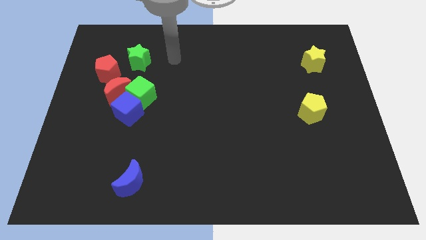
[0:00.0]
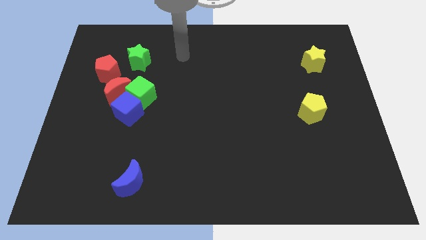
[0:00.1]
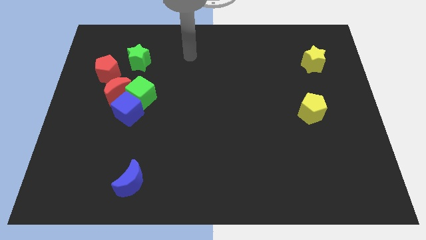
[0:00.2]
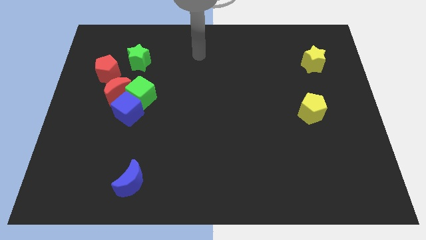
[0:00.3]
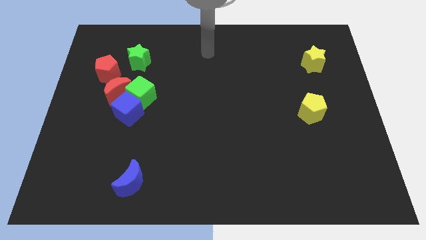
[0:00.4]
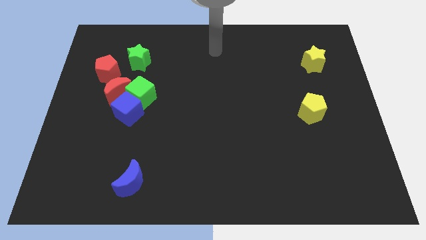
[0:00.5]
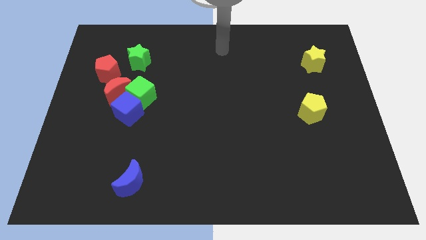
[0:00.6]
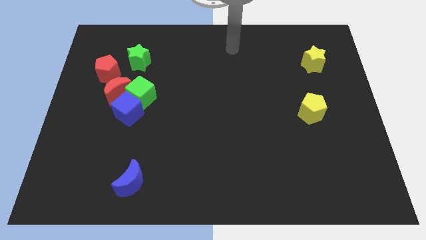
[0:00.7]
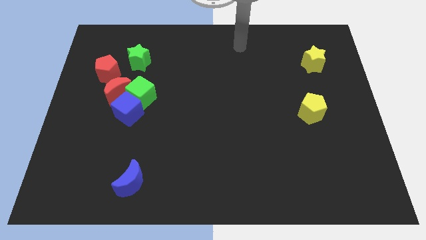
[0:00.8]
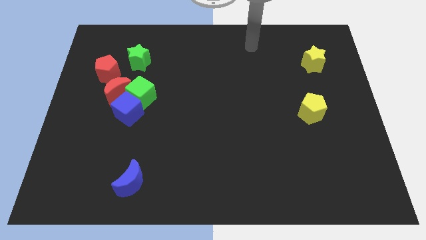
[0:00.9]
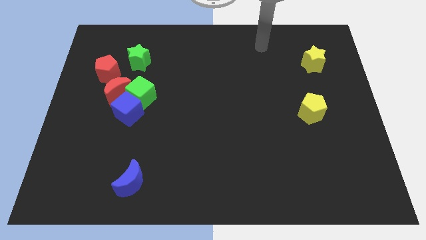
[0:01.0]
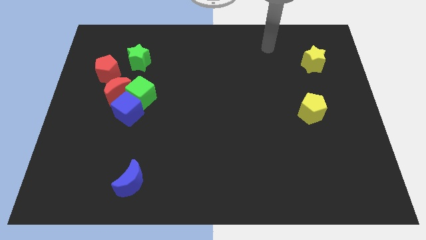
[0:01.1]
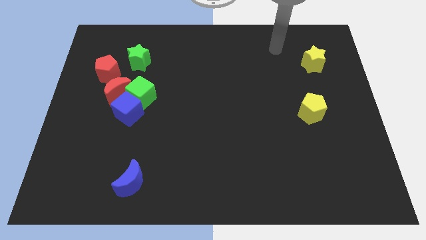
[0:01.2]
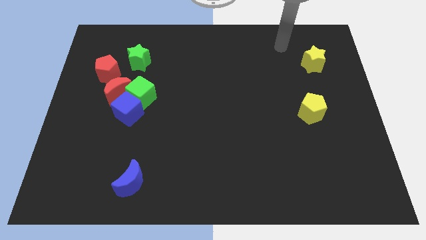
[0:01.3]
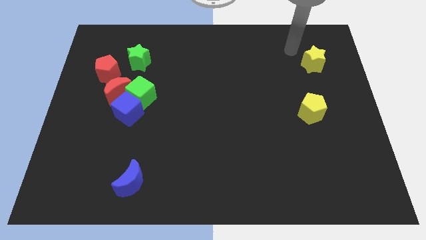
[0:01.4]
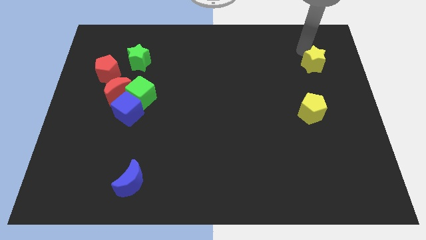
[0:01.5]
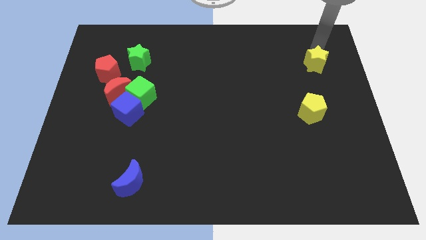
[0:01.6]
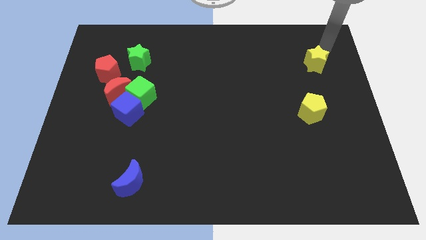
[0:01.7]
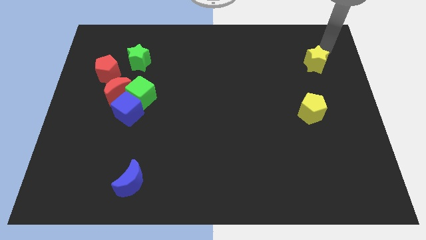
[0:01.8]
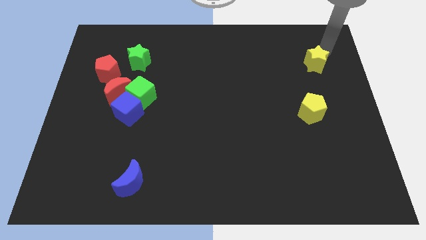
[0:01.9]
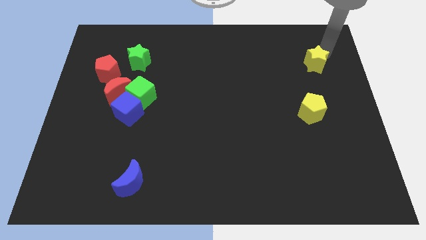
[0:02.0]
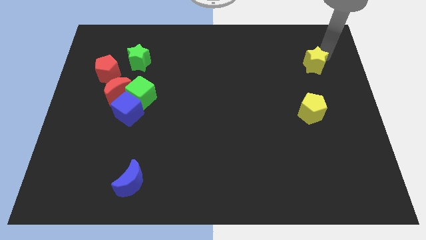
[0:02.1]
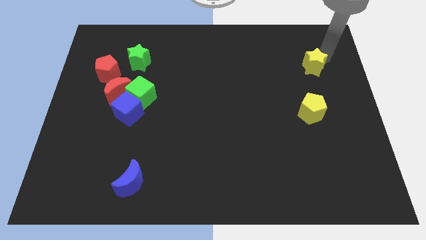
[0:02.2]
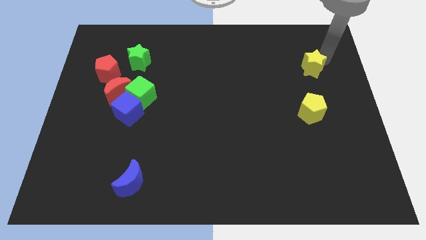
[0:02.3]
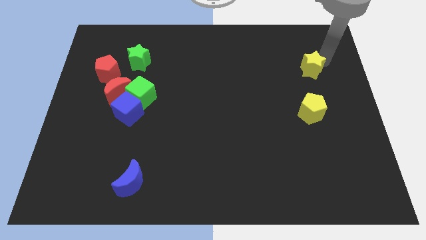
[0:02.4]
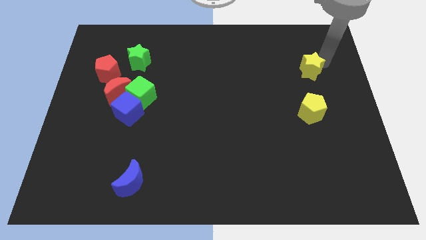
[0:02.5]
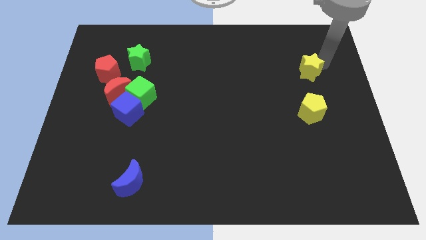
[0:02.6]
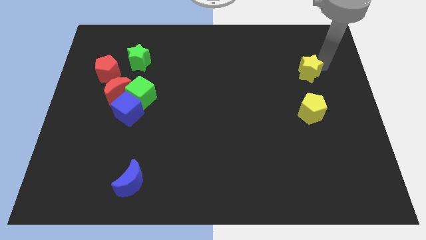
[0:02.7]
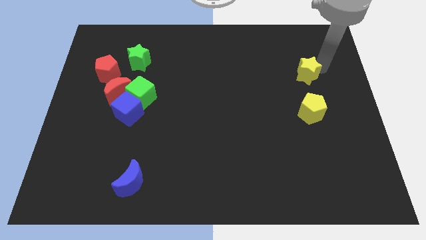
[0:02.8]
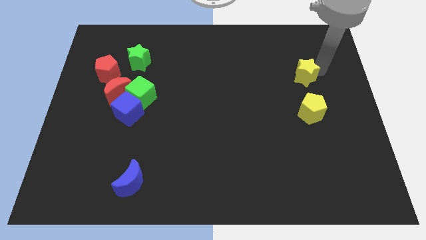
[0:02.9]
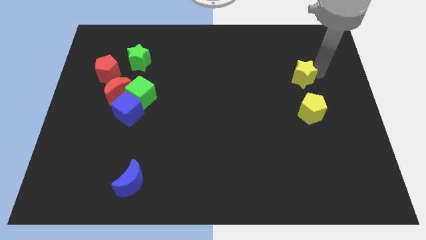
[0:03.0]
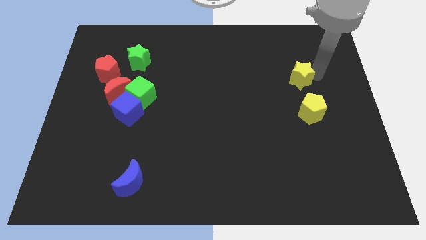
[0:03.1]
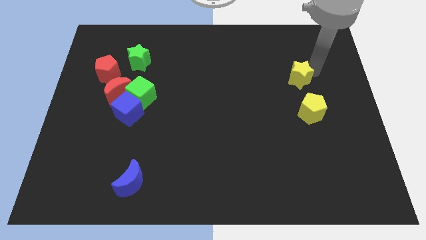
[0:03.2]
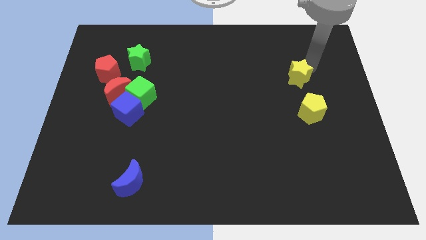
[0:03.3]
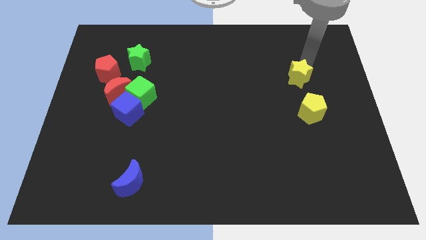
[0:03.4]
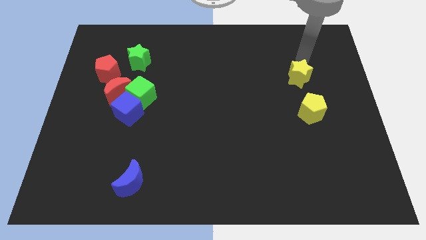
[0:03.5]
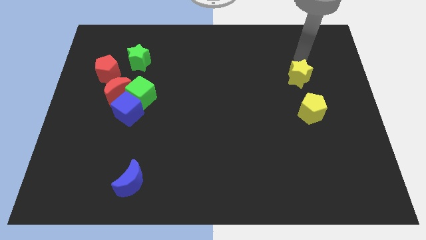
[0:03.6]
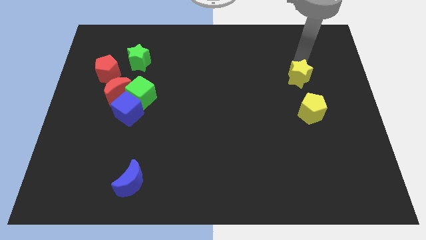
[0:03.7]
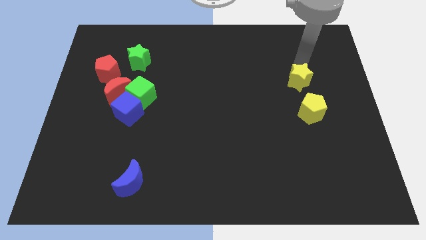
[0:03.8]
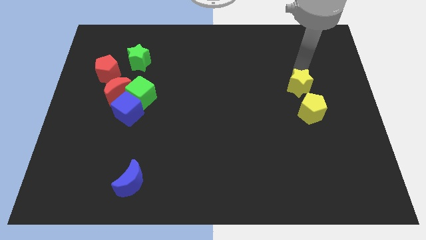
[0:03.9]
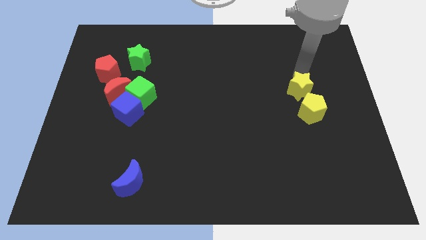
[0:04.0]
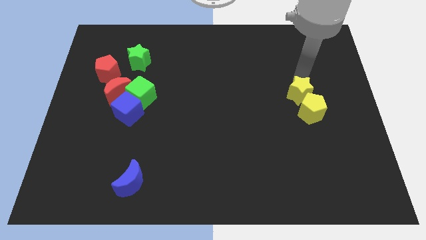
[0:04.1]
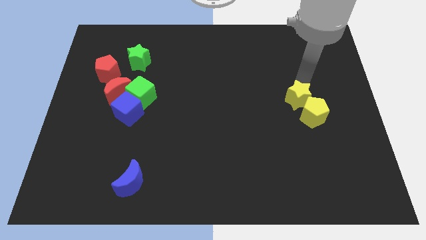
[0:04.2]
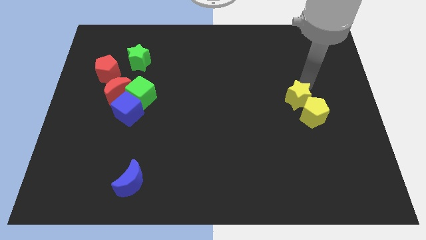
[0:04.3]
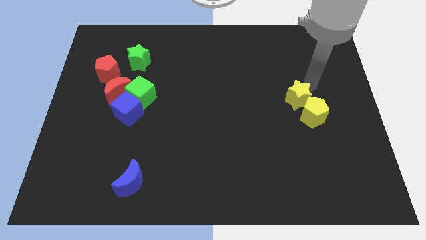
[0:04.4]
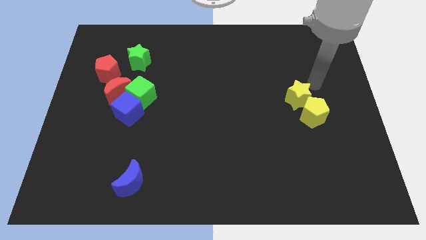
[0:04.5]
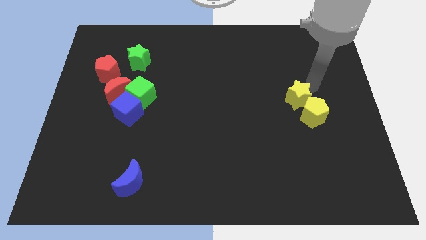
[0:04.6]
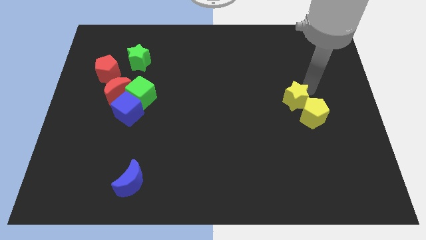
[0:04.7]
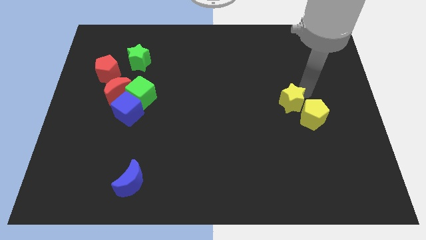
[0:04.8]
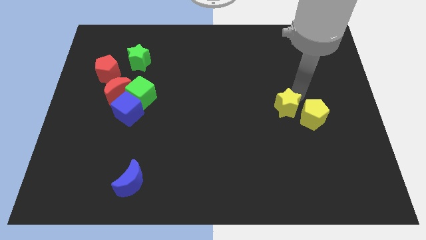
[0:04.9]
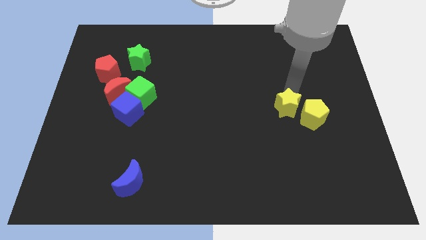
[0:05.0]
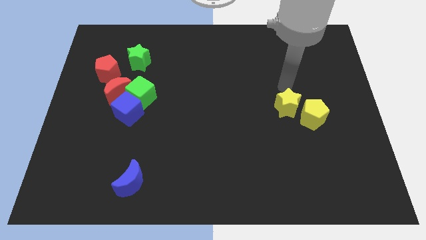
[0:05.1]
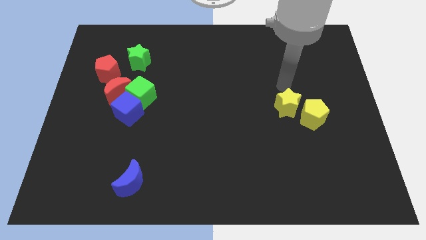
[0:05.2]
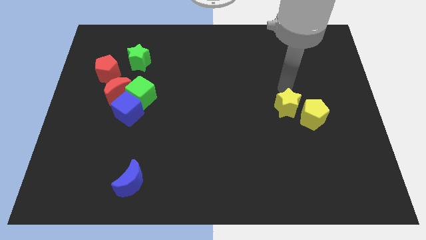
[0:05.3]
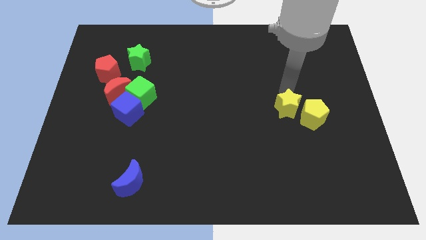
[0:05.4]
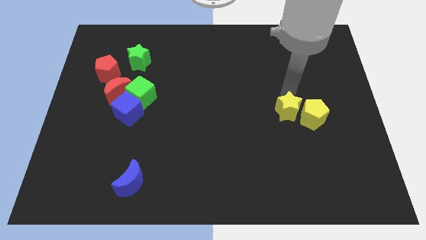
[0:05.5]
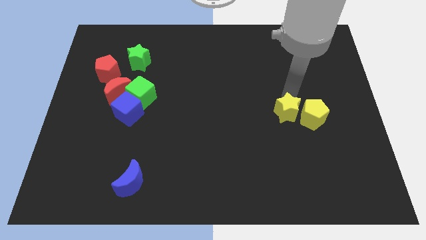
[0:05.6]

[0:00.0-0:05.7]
put the yellow star to the bottom left side of the yellow pentagon
